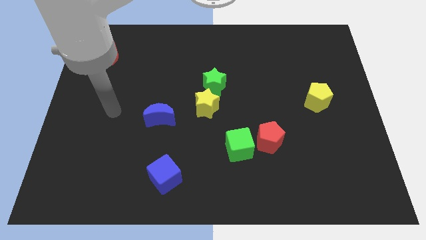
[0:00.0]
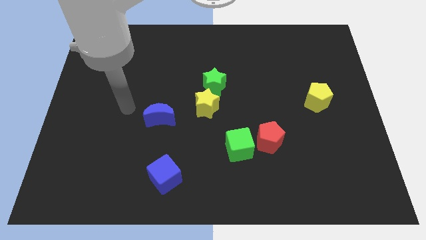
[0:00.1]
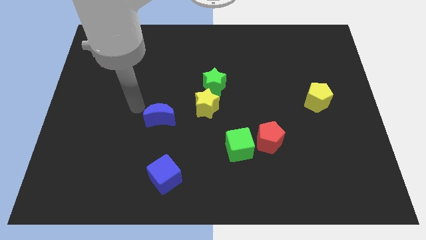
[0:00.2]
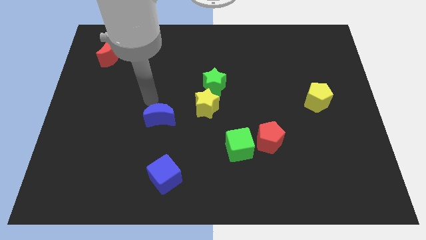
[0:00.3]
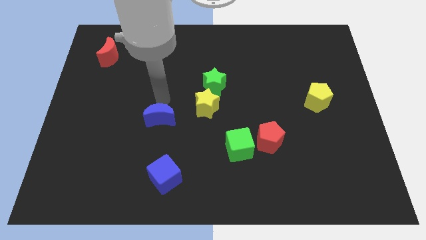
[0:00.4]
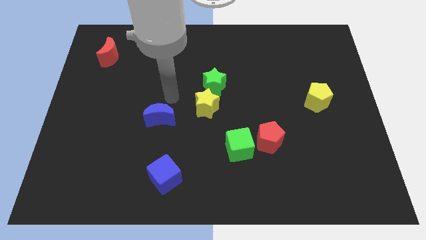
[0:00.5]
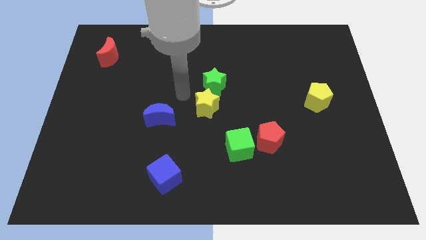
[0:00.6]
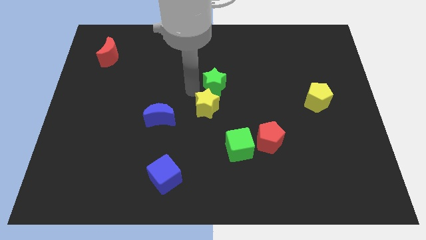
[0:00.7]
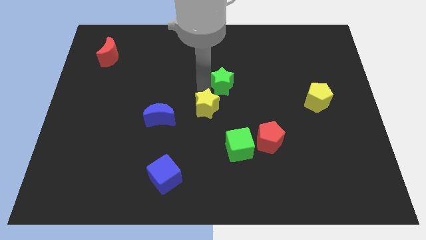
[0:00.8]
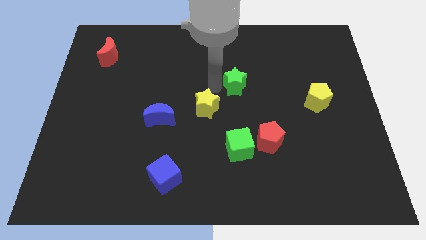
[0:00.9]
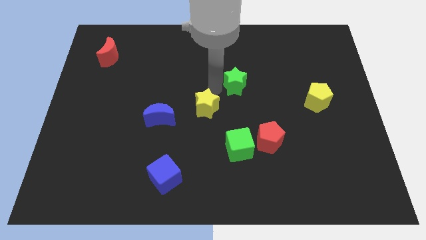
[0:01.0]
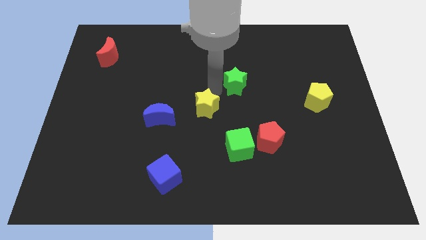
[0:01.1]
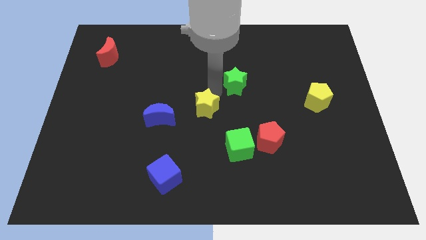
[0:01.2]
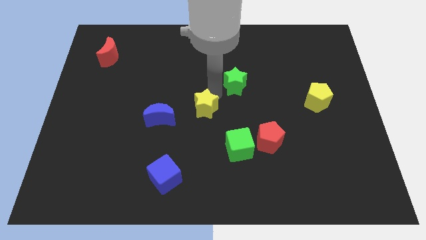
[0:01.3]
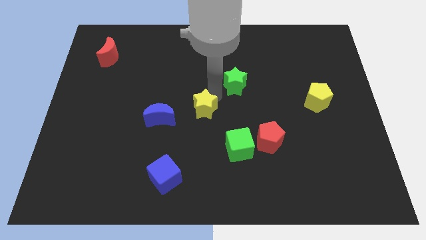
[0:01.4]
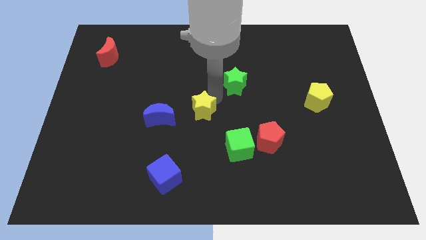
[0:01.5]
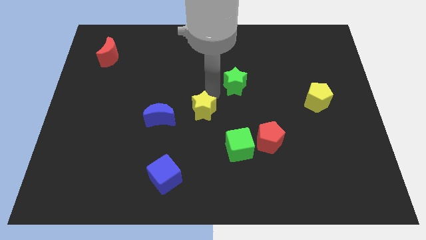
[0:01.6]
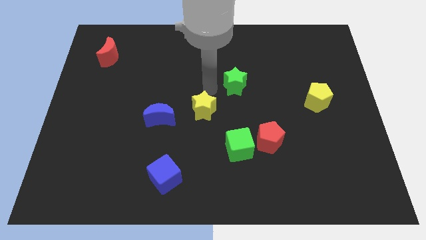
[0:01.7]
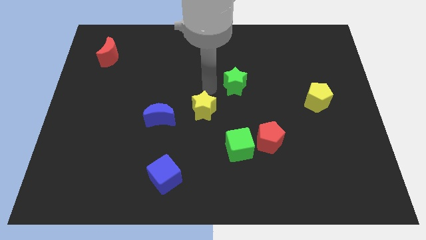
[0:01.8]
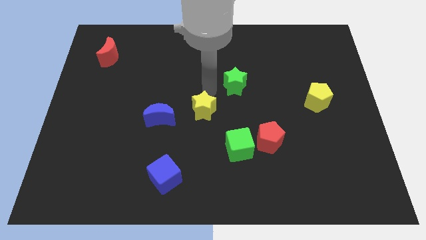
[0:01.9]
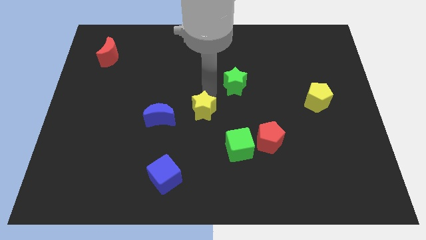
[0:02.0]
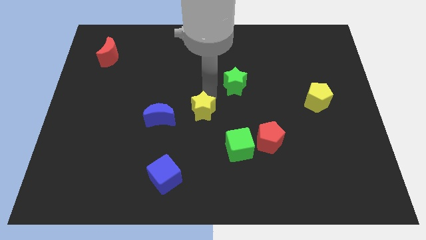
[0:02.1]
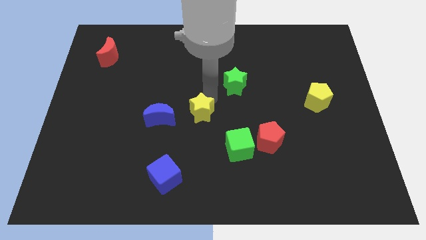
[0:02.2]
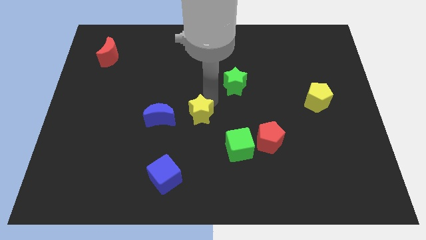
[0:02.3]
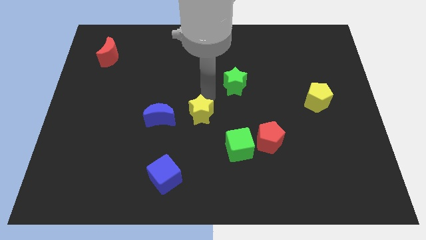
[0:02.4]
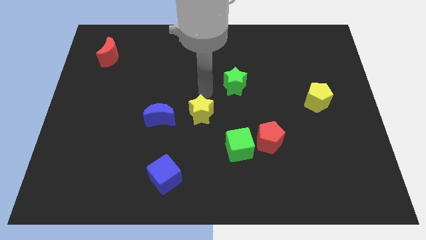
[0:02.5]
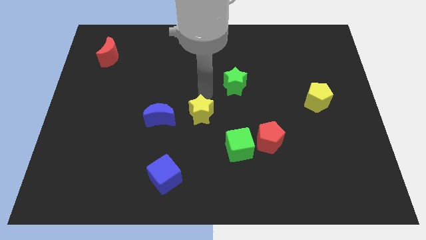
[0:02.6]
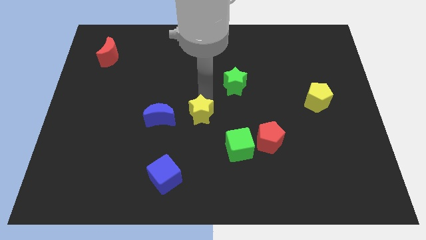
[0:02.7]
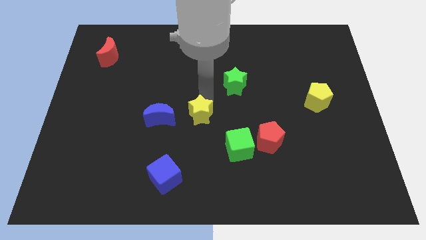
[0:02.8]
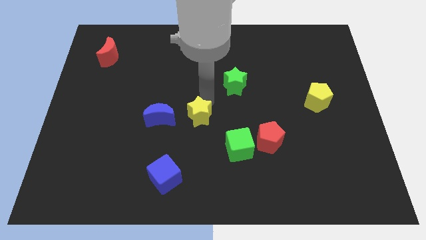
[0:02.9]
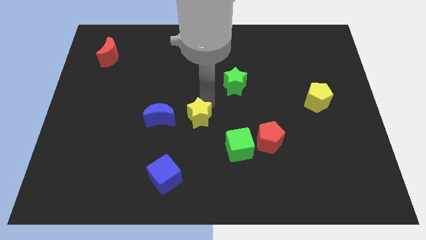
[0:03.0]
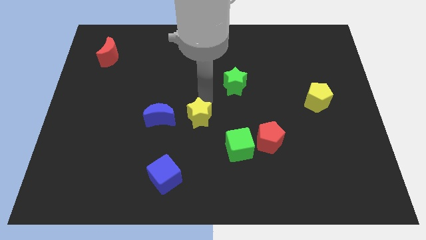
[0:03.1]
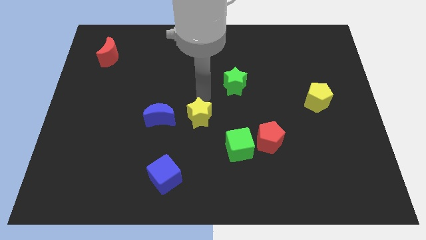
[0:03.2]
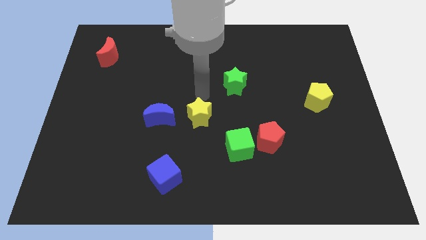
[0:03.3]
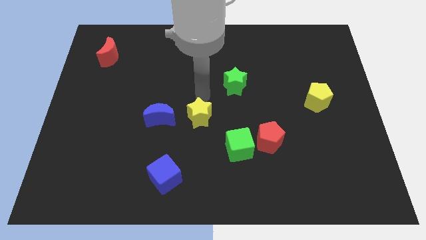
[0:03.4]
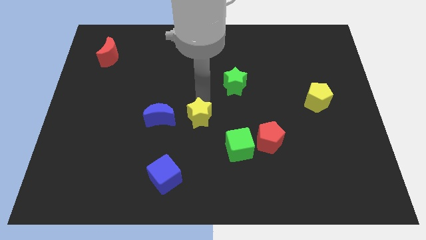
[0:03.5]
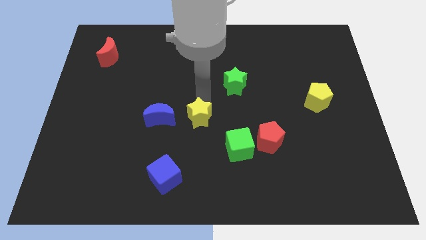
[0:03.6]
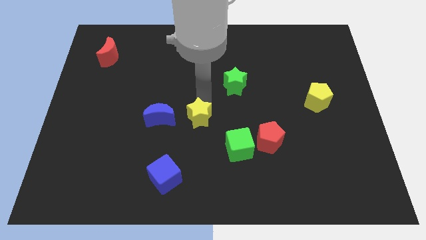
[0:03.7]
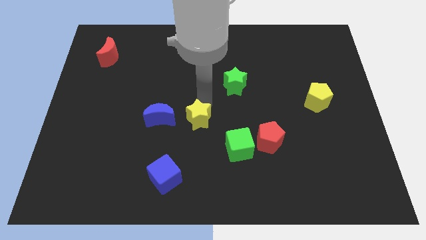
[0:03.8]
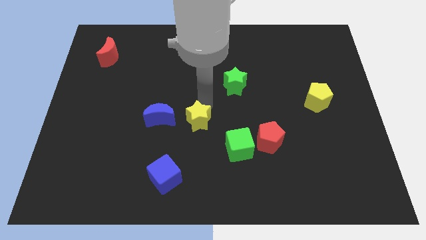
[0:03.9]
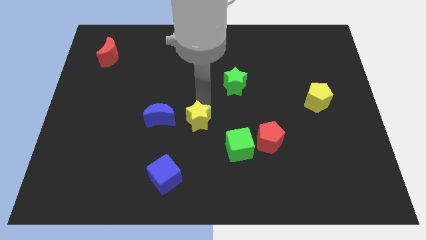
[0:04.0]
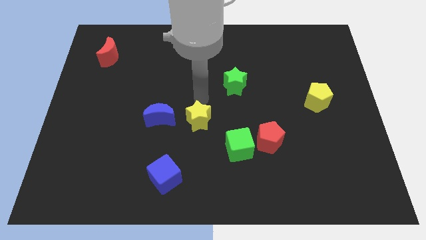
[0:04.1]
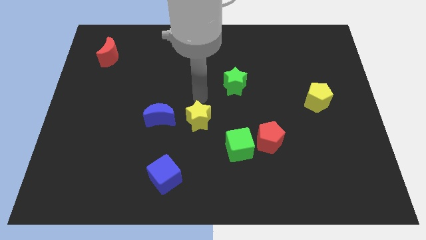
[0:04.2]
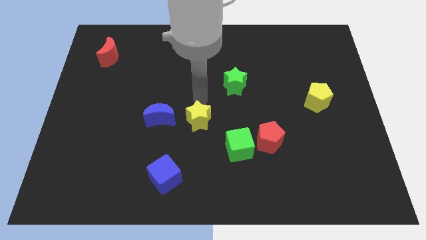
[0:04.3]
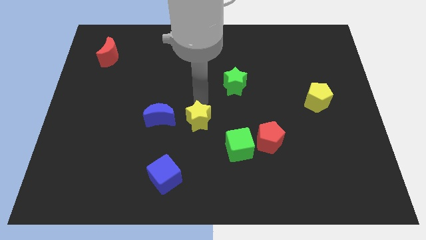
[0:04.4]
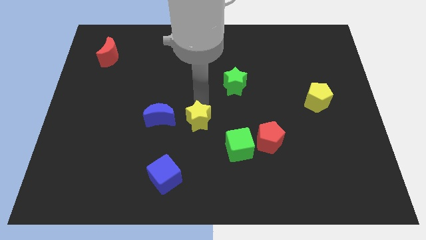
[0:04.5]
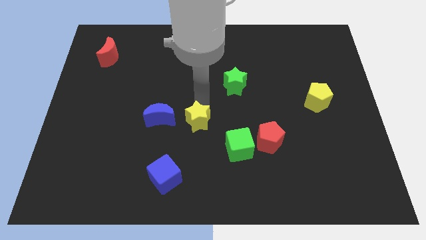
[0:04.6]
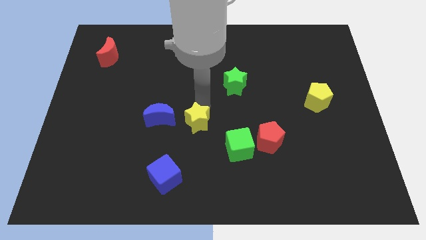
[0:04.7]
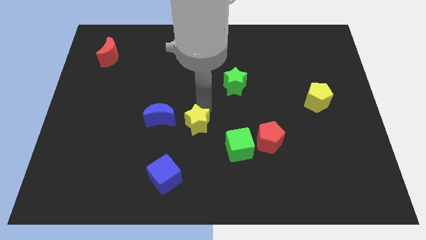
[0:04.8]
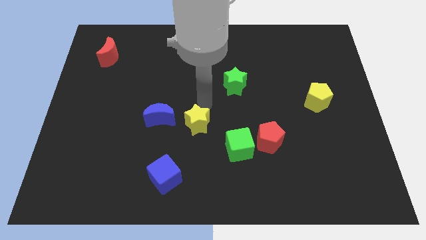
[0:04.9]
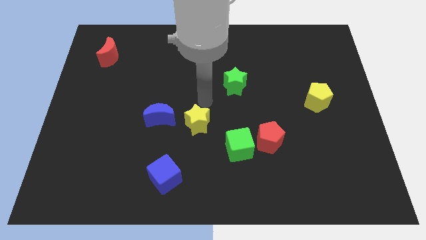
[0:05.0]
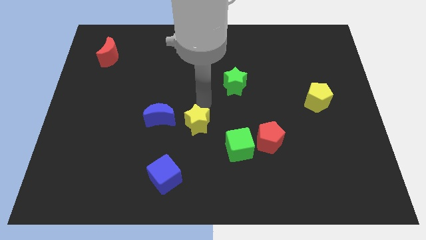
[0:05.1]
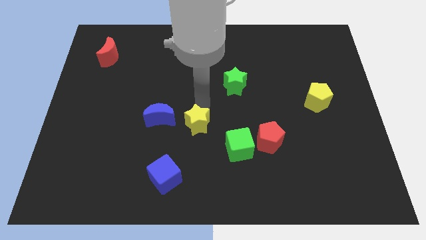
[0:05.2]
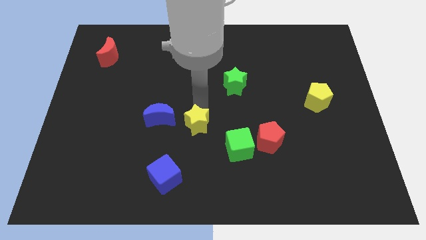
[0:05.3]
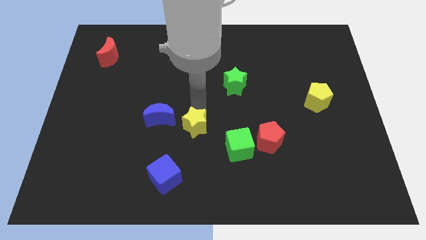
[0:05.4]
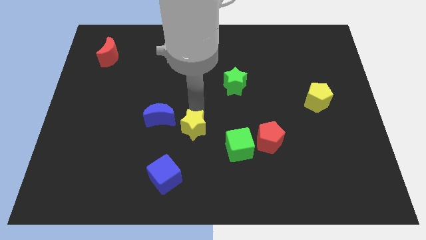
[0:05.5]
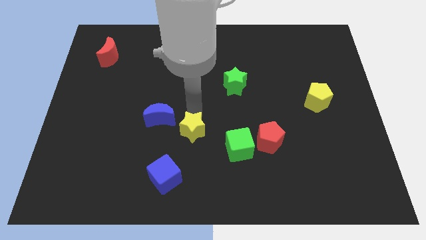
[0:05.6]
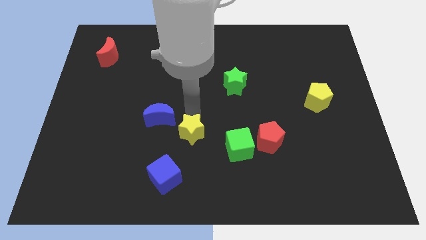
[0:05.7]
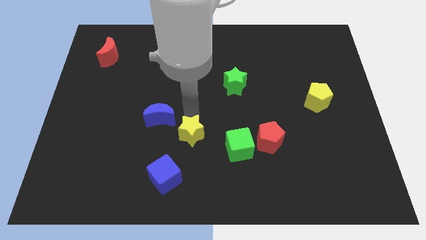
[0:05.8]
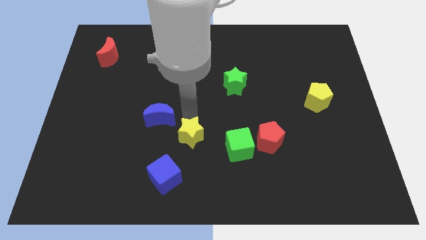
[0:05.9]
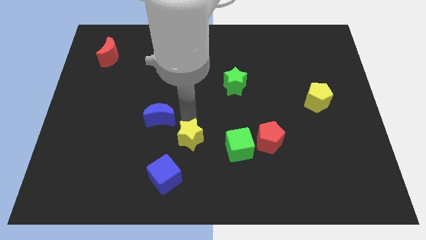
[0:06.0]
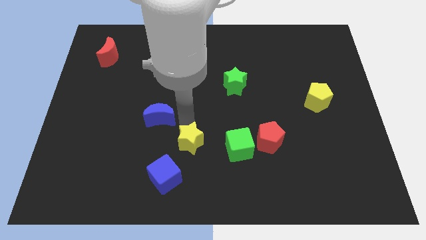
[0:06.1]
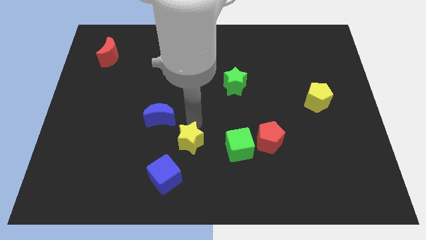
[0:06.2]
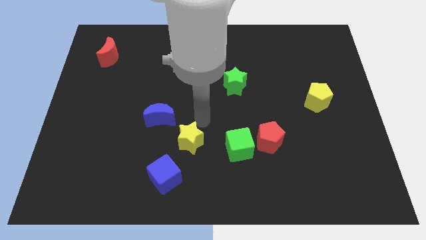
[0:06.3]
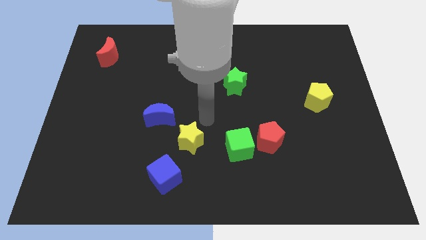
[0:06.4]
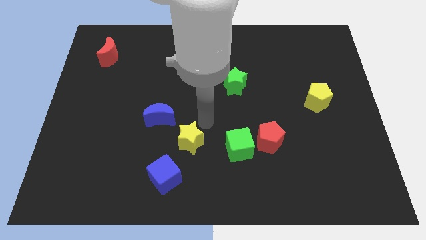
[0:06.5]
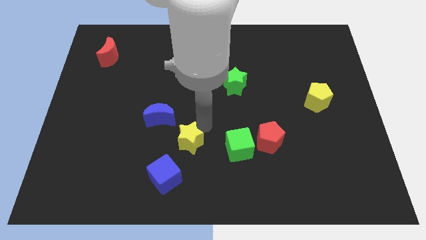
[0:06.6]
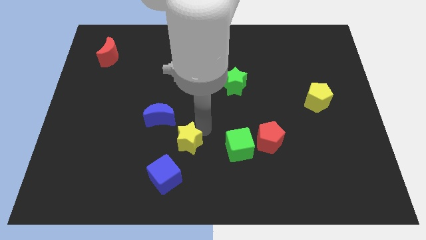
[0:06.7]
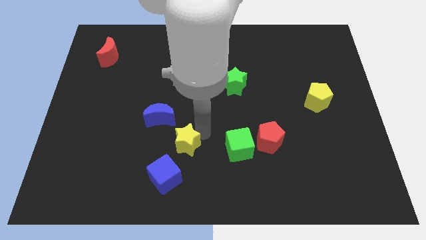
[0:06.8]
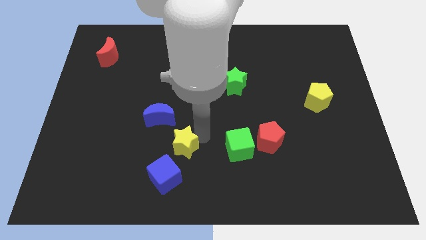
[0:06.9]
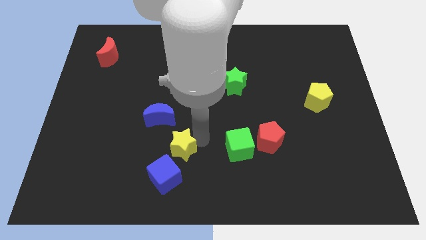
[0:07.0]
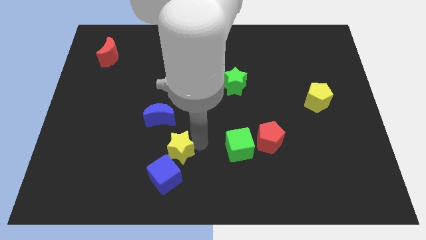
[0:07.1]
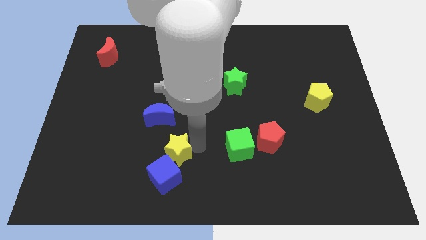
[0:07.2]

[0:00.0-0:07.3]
slide the yellow star next to the blue cube
